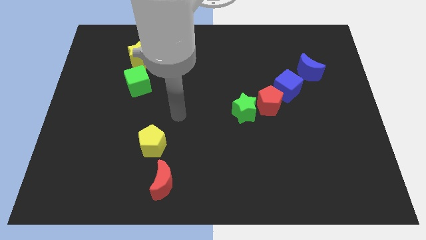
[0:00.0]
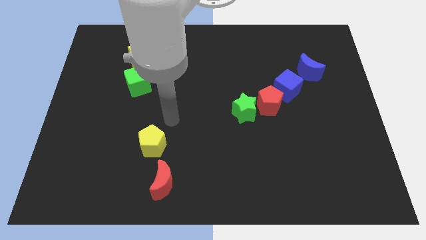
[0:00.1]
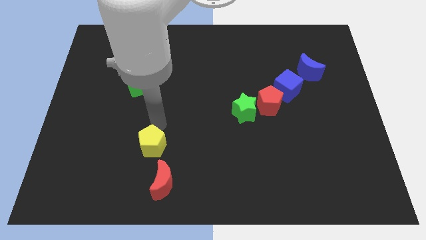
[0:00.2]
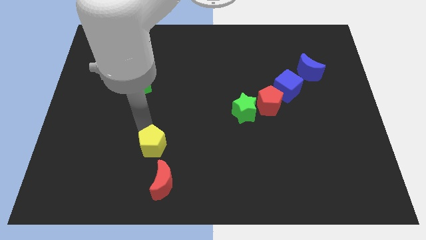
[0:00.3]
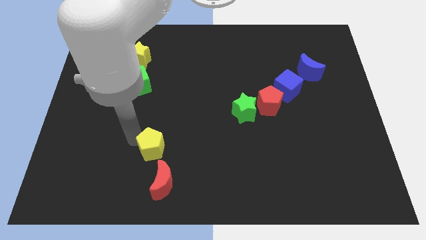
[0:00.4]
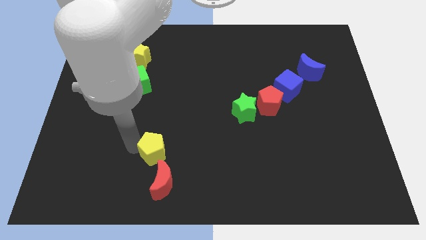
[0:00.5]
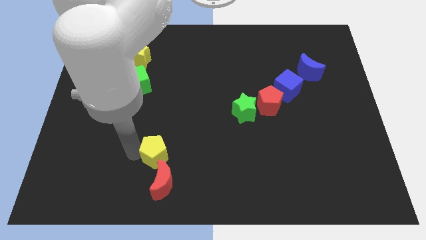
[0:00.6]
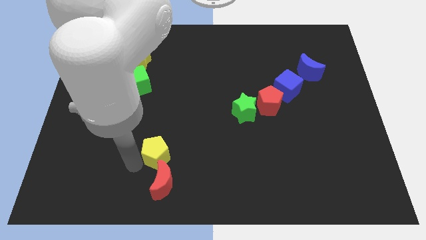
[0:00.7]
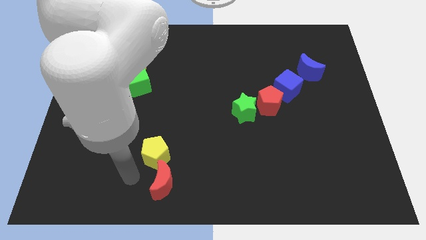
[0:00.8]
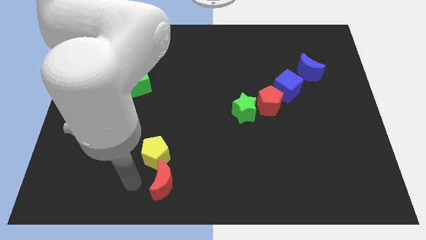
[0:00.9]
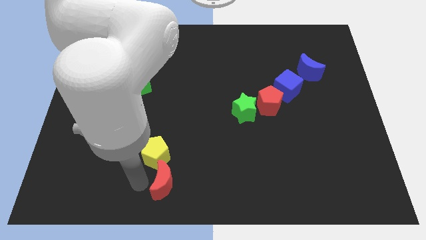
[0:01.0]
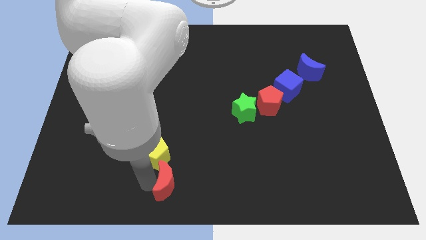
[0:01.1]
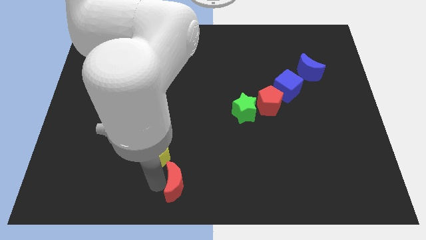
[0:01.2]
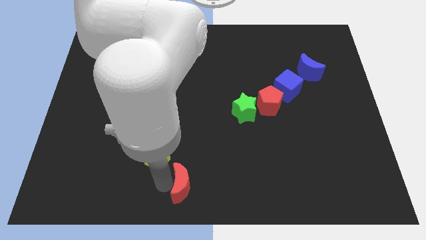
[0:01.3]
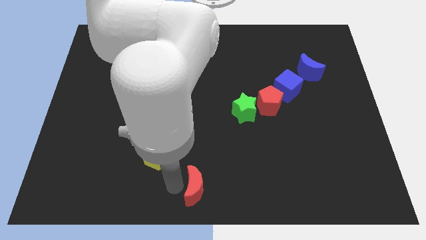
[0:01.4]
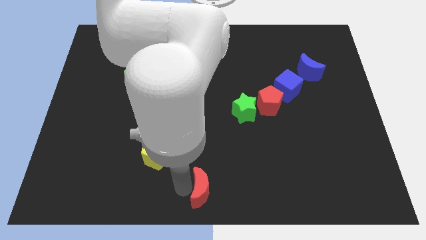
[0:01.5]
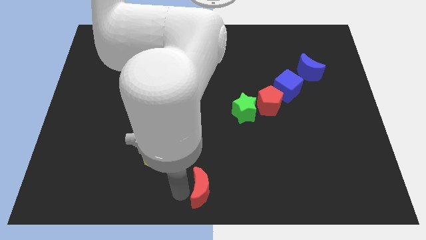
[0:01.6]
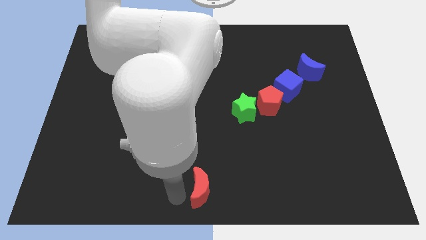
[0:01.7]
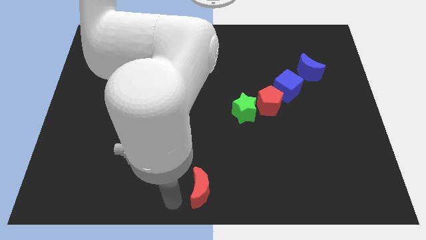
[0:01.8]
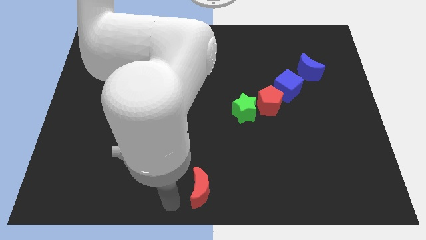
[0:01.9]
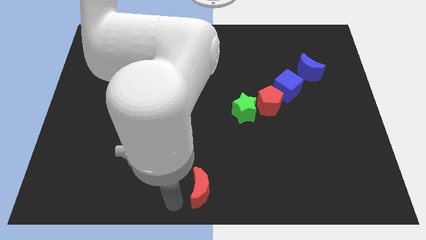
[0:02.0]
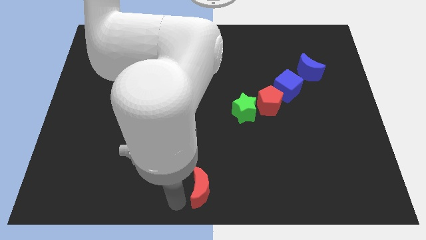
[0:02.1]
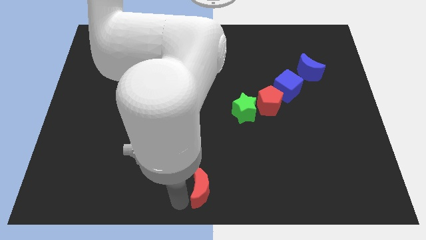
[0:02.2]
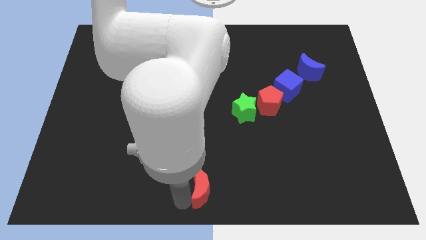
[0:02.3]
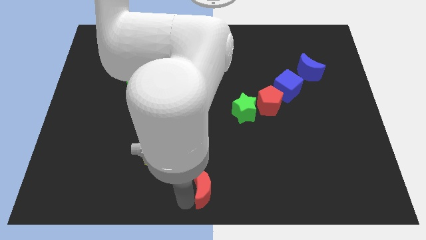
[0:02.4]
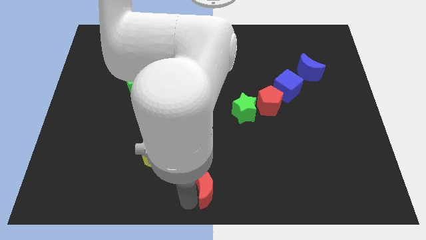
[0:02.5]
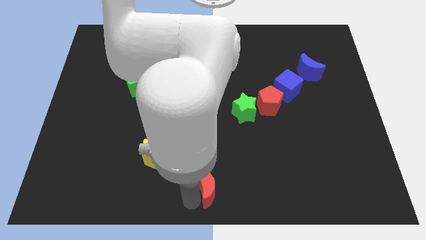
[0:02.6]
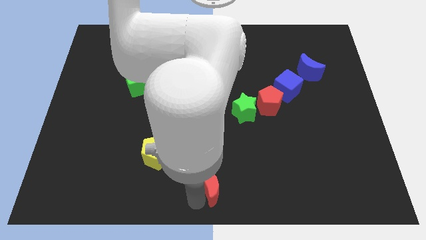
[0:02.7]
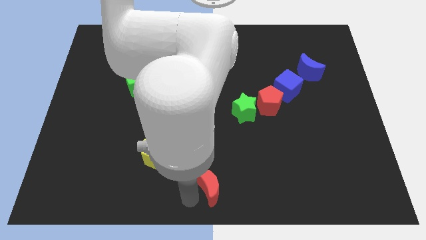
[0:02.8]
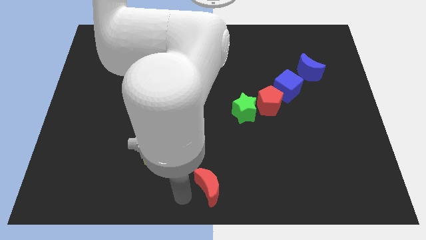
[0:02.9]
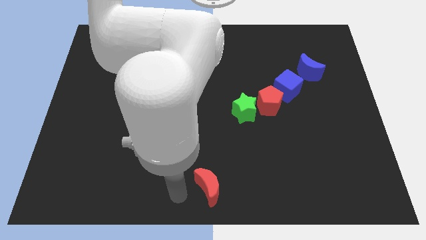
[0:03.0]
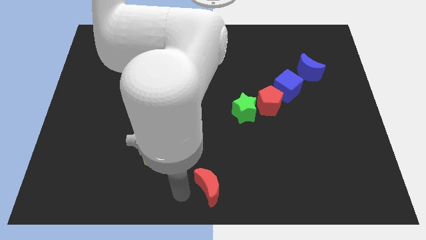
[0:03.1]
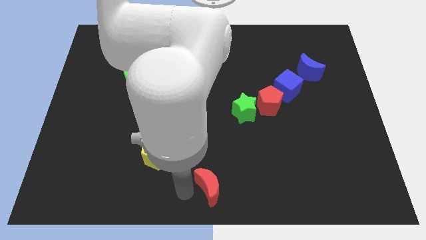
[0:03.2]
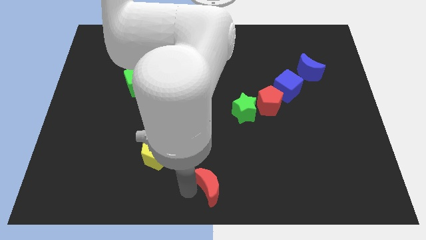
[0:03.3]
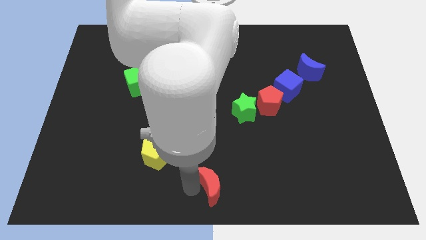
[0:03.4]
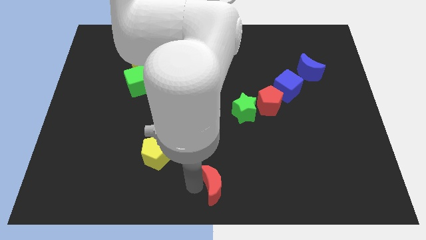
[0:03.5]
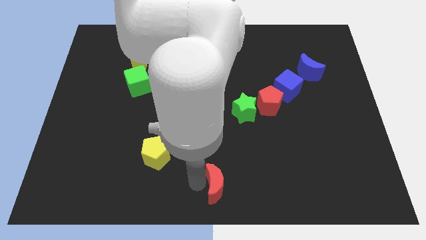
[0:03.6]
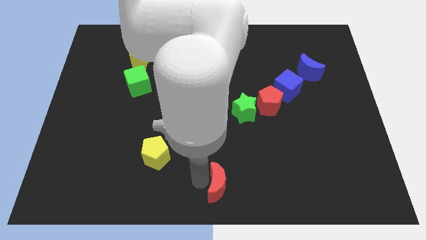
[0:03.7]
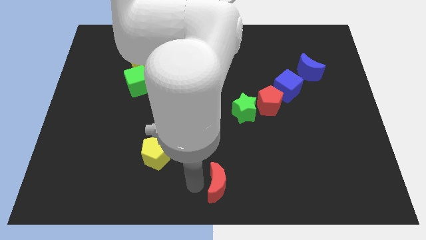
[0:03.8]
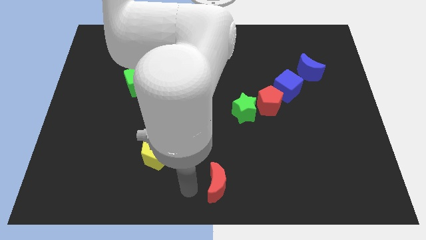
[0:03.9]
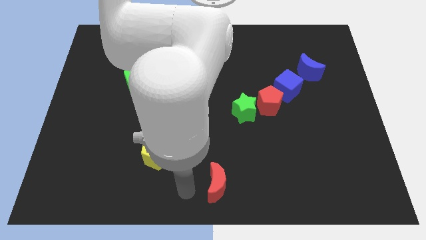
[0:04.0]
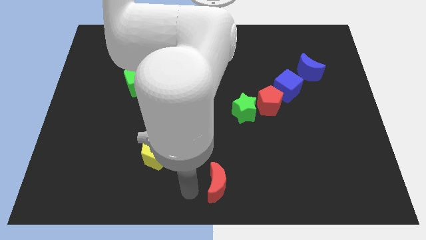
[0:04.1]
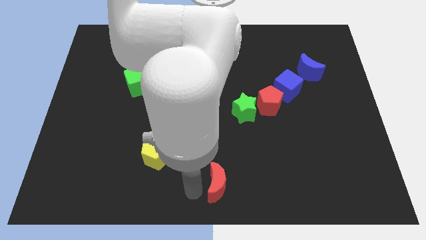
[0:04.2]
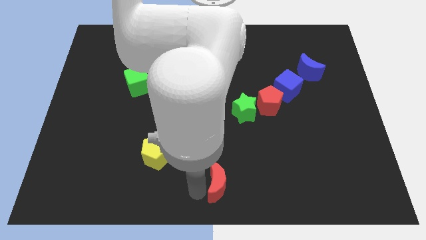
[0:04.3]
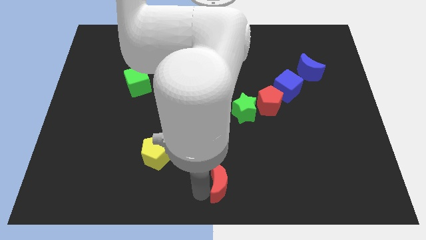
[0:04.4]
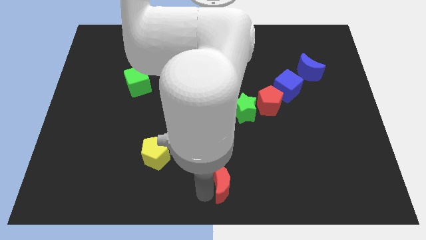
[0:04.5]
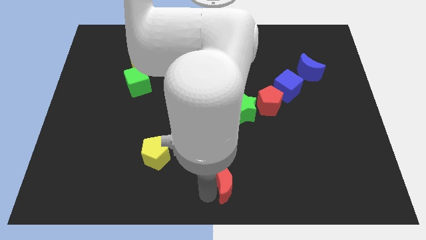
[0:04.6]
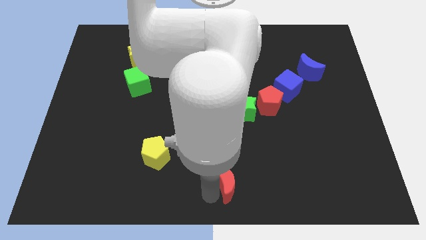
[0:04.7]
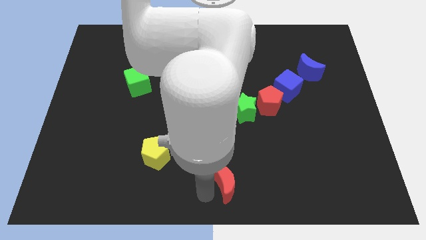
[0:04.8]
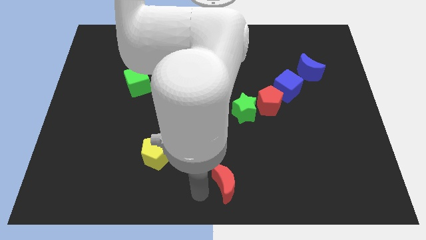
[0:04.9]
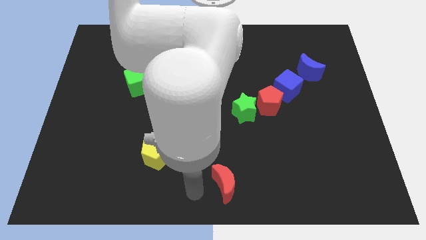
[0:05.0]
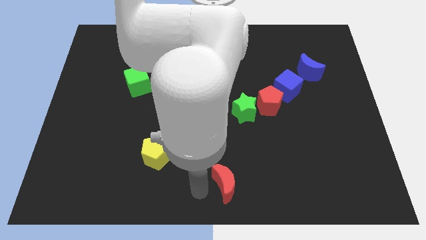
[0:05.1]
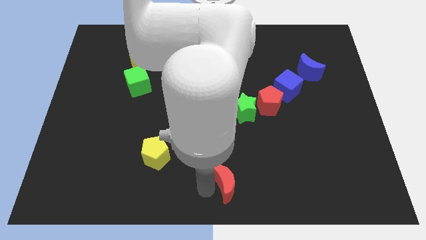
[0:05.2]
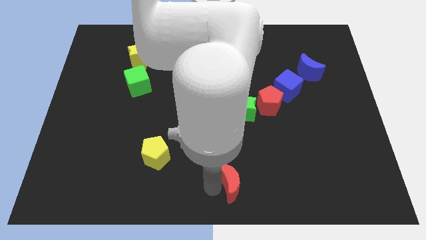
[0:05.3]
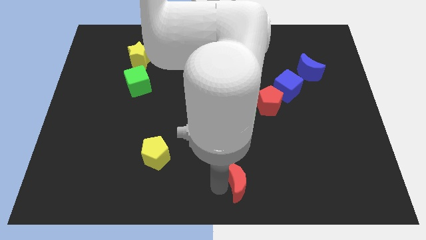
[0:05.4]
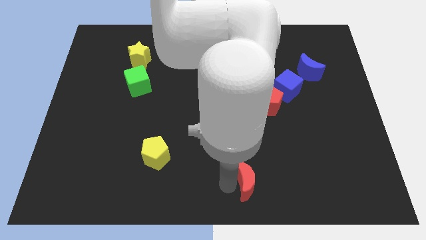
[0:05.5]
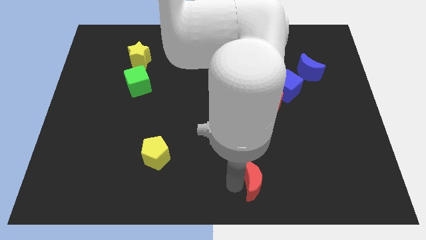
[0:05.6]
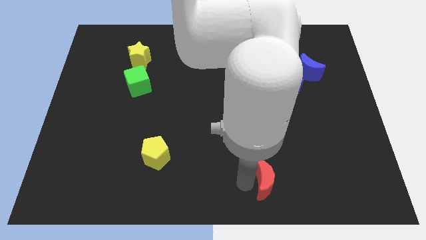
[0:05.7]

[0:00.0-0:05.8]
slide the red moon right

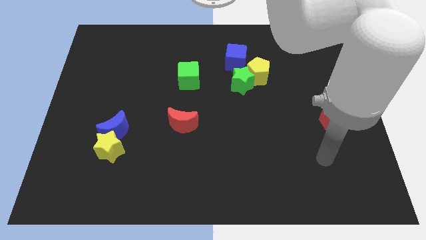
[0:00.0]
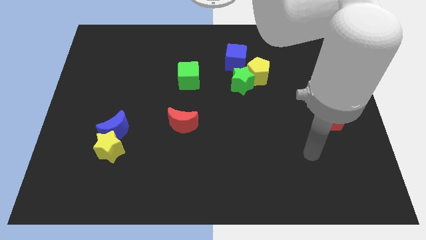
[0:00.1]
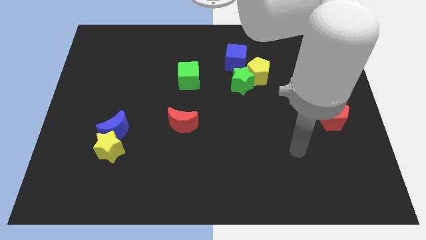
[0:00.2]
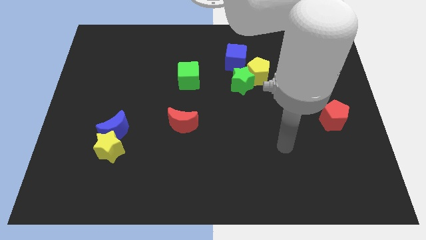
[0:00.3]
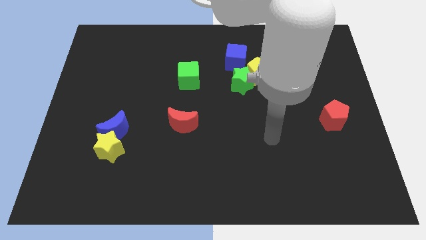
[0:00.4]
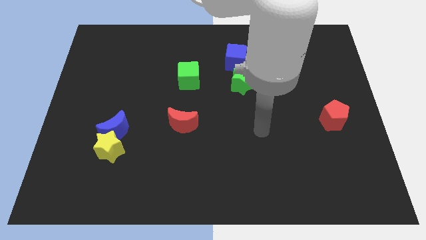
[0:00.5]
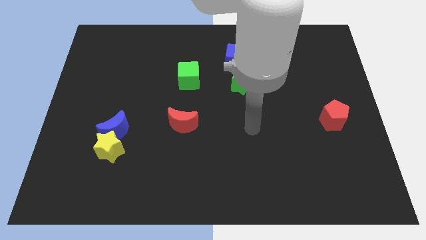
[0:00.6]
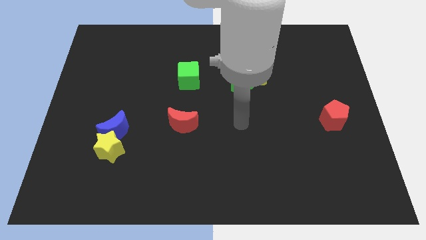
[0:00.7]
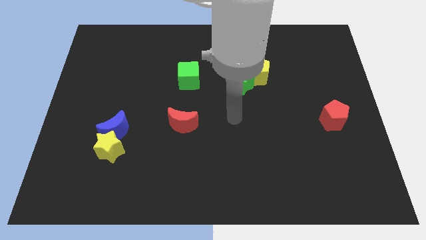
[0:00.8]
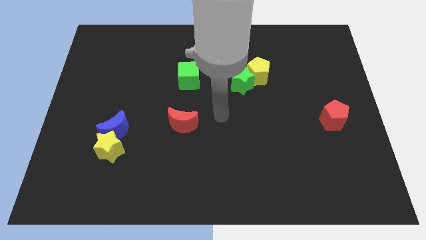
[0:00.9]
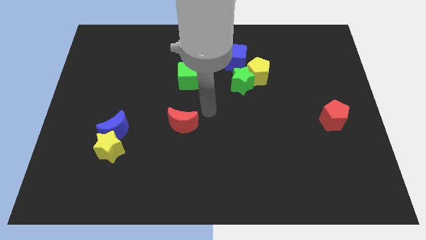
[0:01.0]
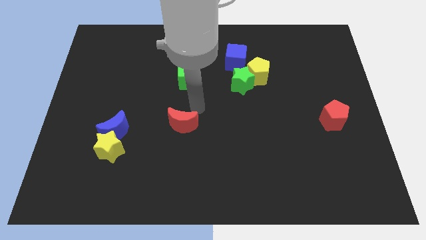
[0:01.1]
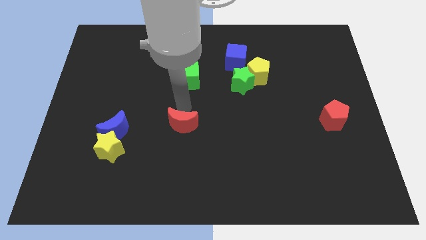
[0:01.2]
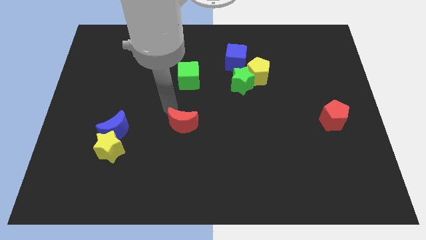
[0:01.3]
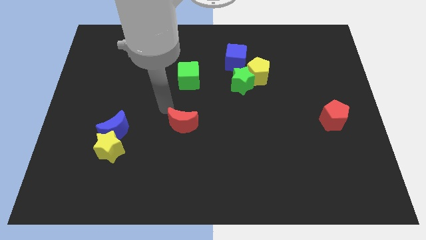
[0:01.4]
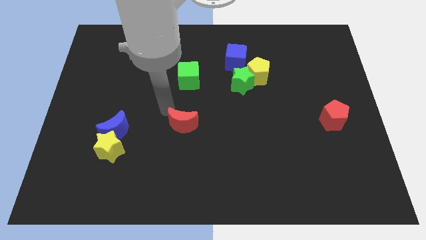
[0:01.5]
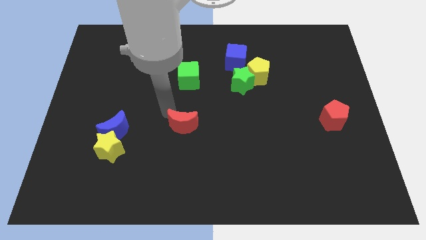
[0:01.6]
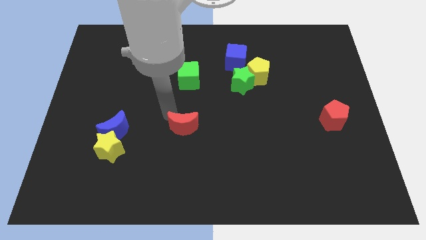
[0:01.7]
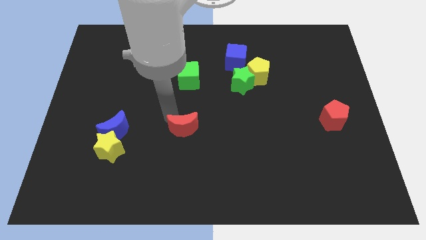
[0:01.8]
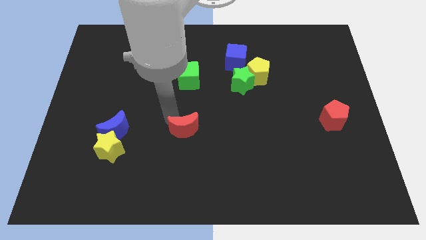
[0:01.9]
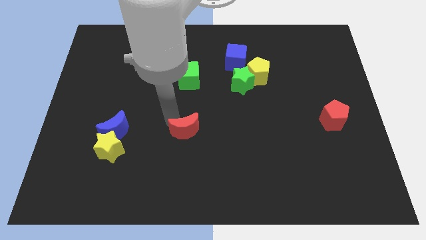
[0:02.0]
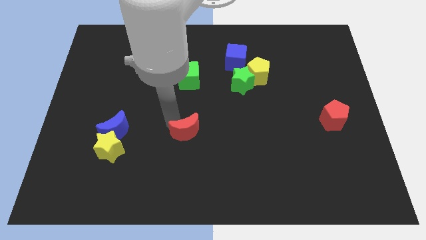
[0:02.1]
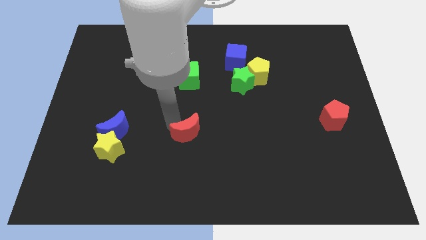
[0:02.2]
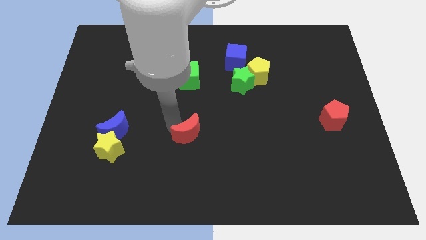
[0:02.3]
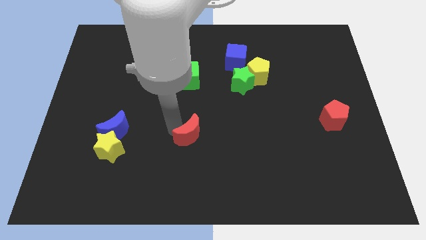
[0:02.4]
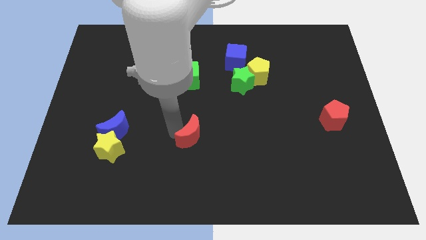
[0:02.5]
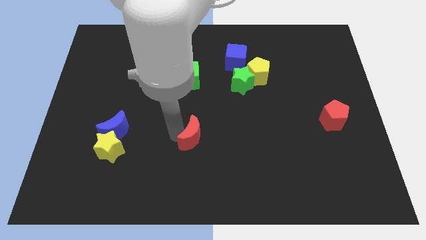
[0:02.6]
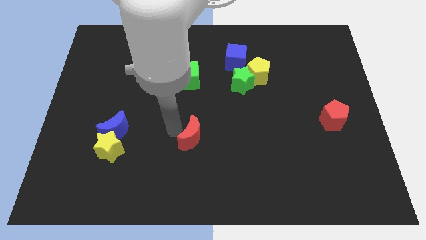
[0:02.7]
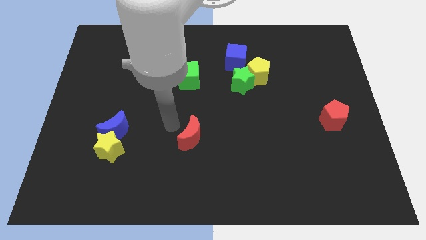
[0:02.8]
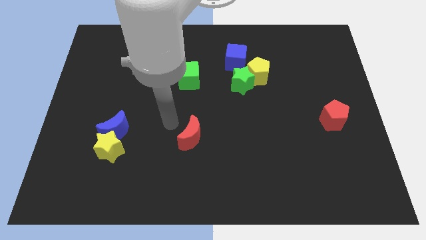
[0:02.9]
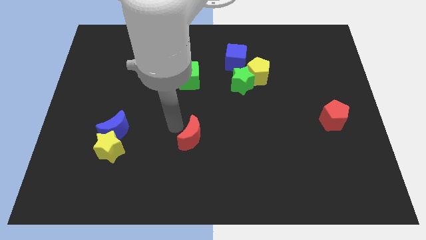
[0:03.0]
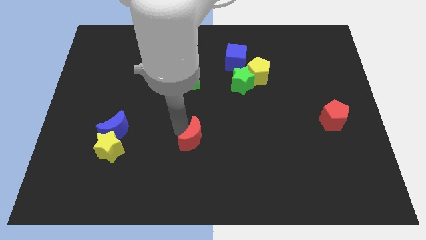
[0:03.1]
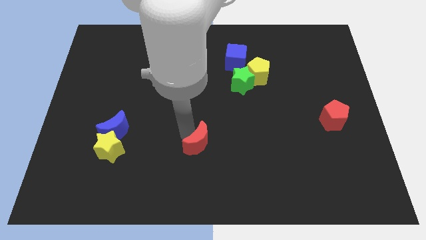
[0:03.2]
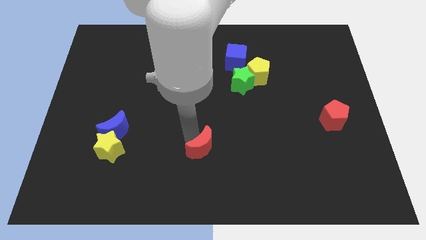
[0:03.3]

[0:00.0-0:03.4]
move the red moon diagonally down and to the right a little
